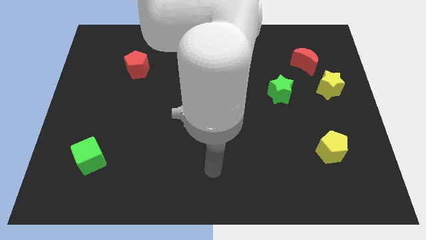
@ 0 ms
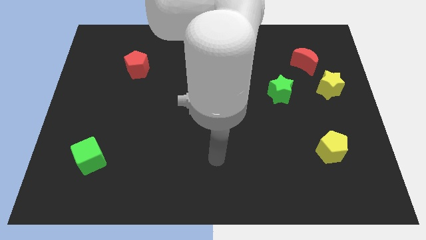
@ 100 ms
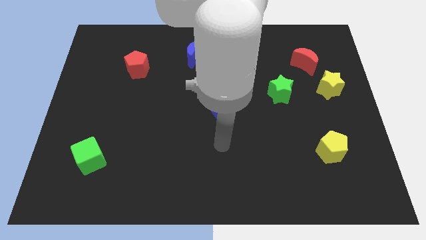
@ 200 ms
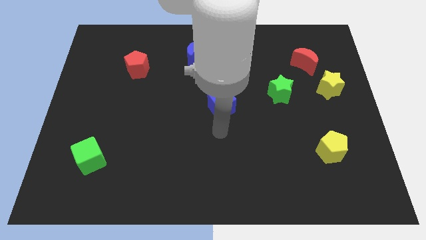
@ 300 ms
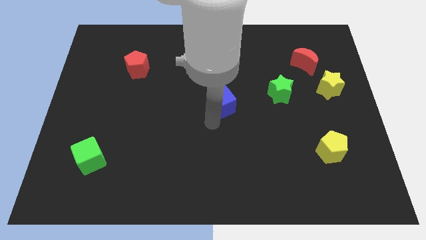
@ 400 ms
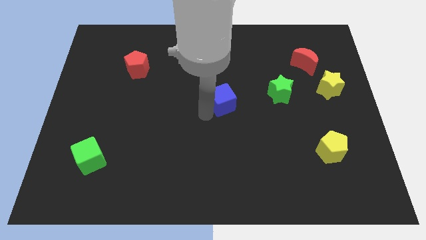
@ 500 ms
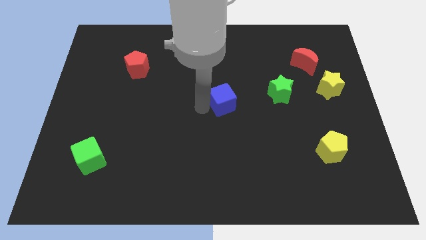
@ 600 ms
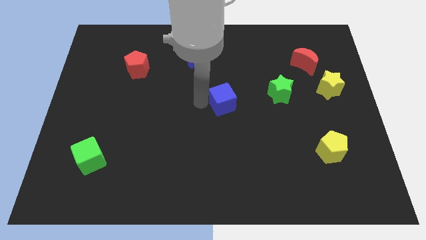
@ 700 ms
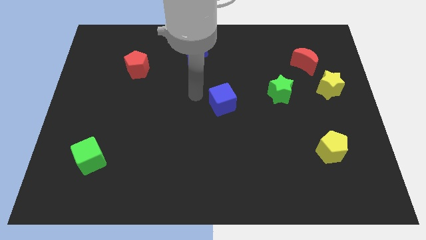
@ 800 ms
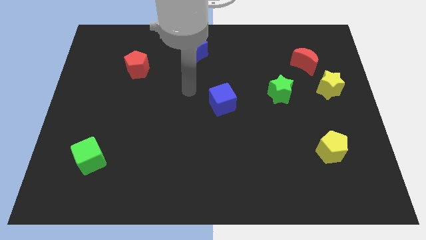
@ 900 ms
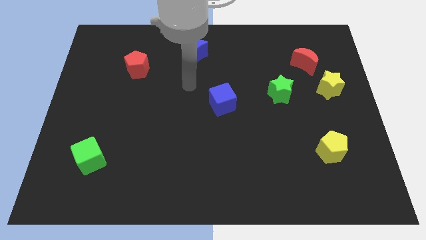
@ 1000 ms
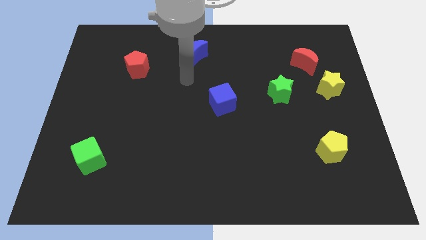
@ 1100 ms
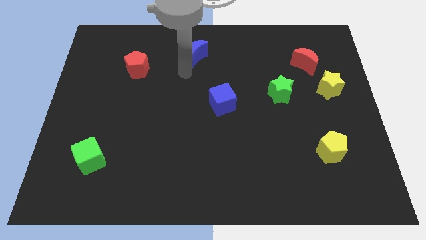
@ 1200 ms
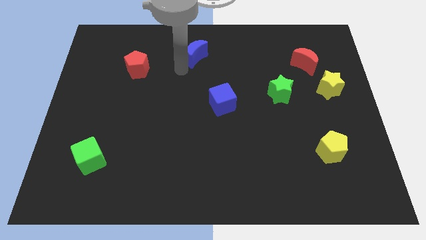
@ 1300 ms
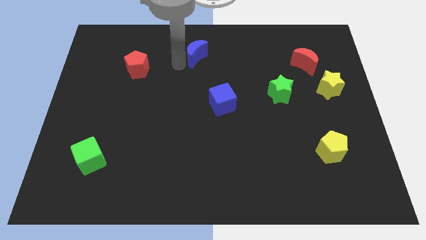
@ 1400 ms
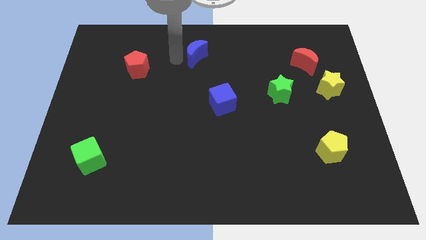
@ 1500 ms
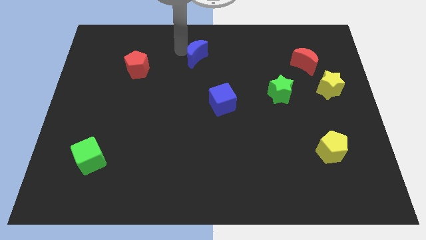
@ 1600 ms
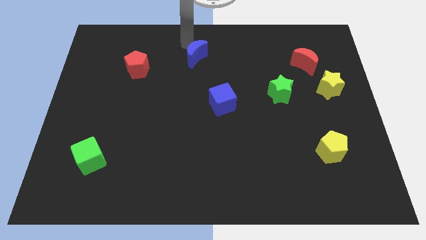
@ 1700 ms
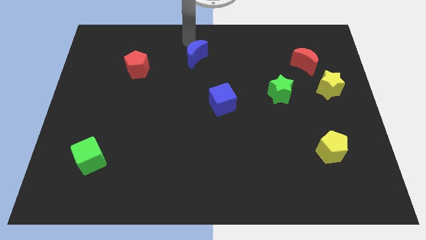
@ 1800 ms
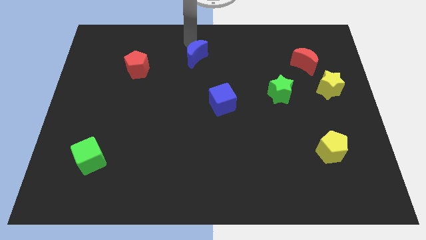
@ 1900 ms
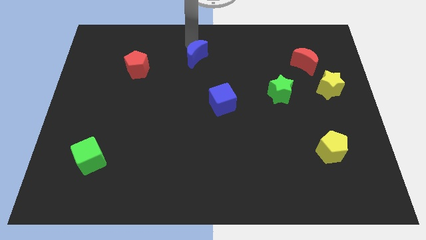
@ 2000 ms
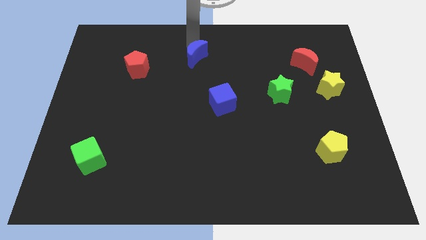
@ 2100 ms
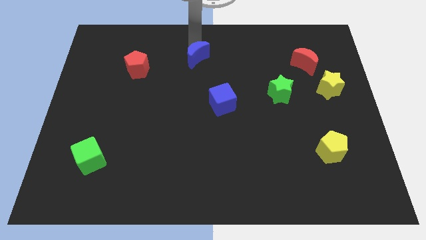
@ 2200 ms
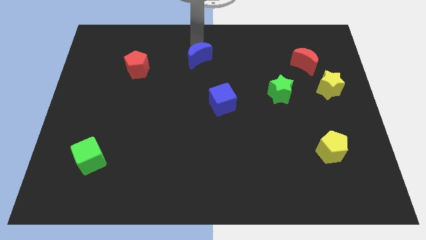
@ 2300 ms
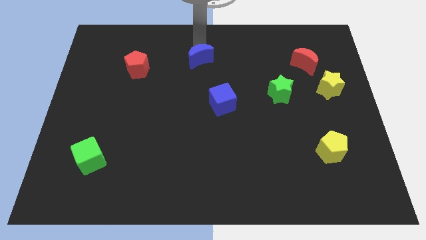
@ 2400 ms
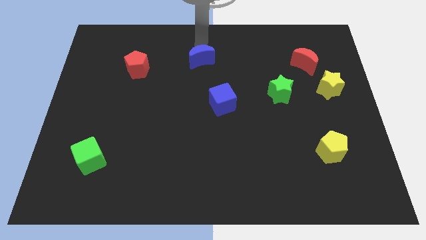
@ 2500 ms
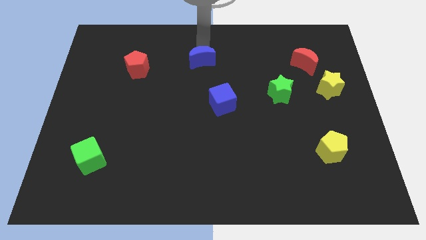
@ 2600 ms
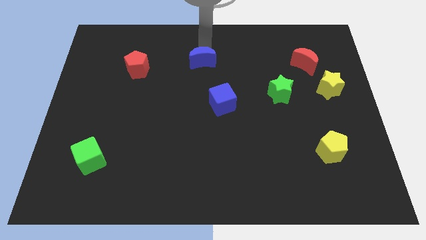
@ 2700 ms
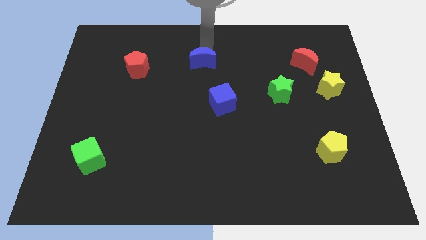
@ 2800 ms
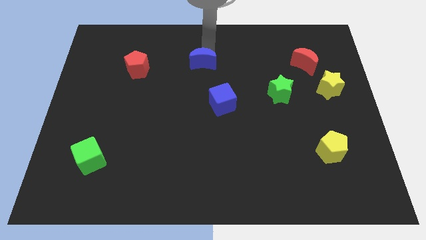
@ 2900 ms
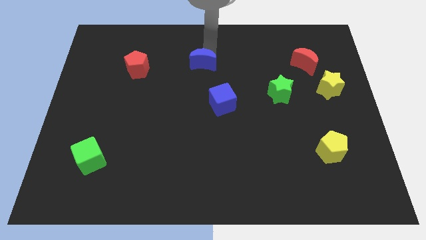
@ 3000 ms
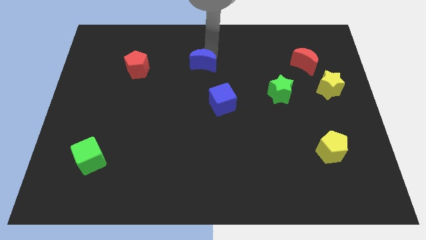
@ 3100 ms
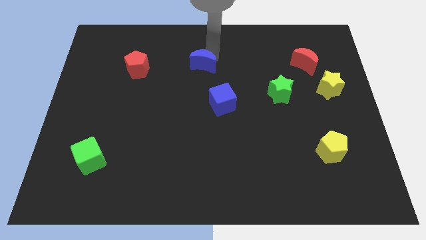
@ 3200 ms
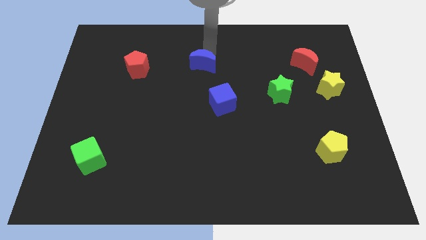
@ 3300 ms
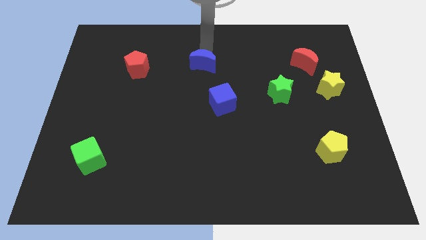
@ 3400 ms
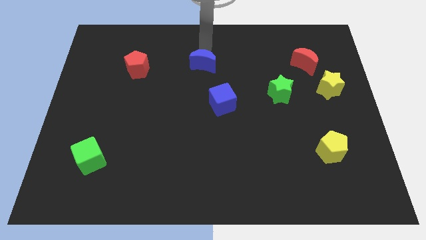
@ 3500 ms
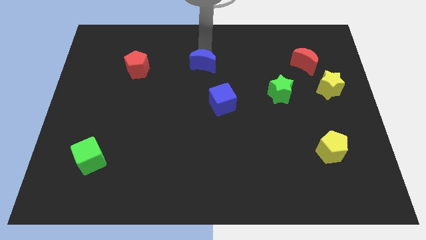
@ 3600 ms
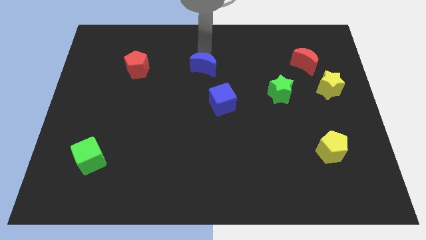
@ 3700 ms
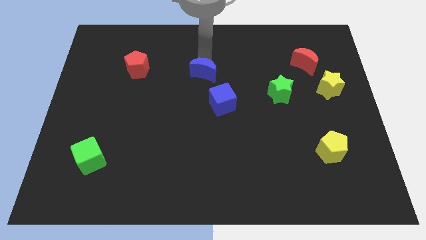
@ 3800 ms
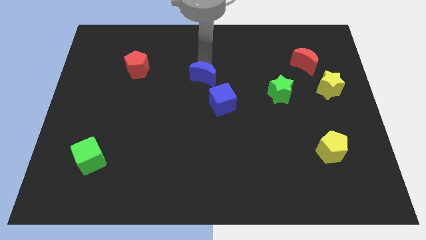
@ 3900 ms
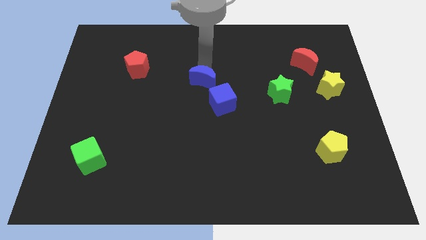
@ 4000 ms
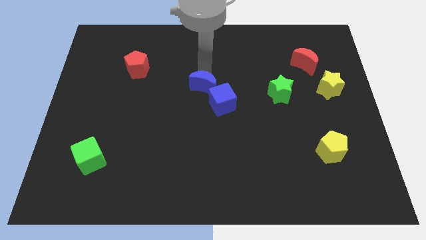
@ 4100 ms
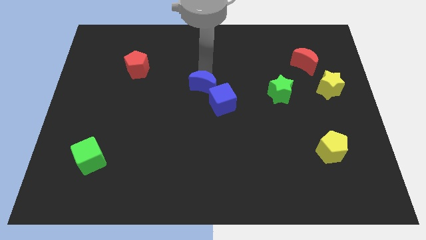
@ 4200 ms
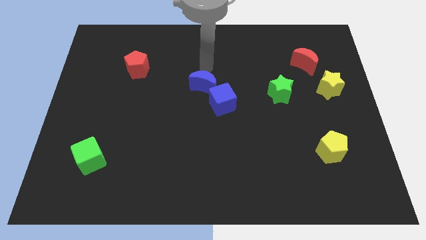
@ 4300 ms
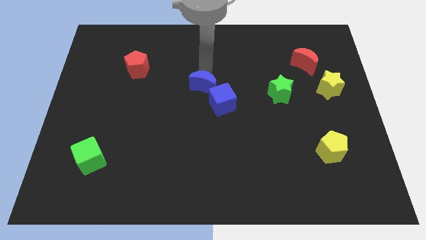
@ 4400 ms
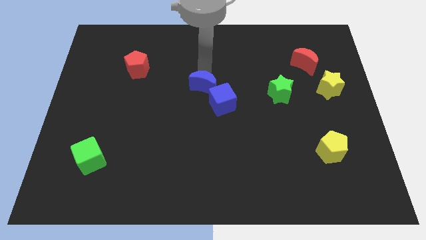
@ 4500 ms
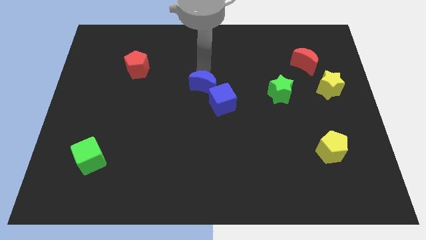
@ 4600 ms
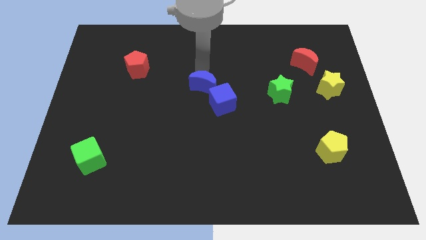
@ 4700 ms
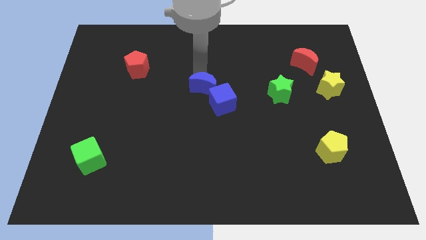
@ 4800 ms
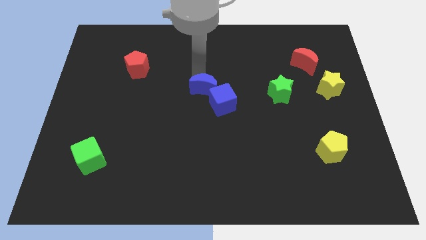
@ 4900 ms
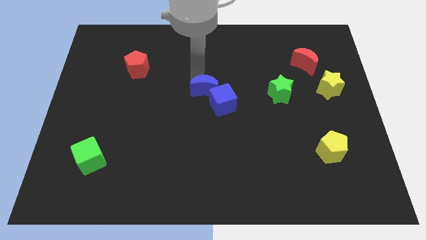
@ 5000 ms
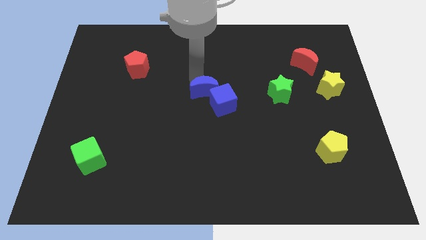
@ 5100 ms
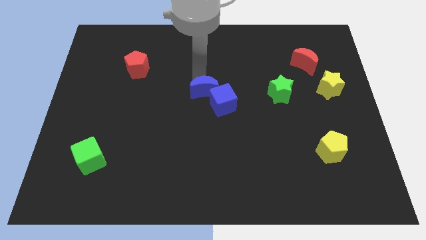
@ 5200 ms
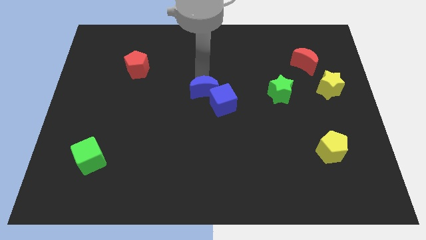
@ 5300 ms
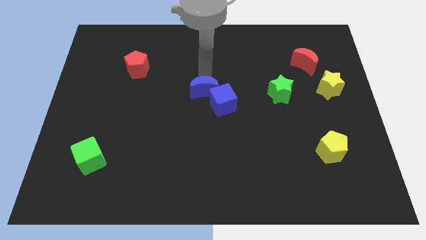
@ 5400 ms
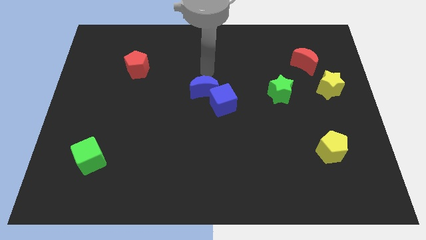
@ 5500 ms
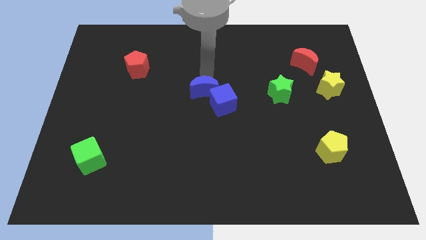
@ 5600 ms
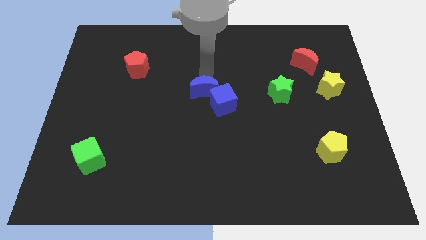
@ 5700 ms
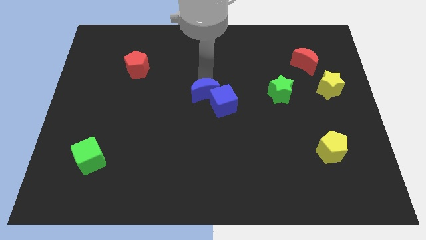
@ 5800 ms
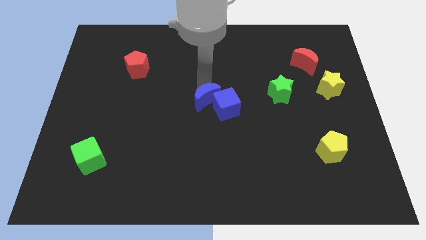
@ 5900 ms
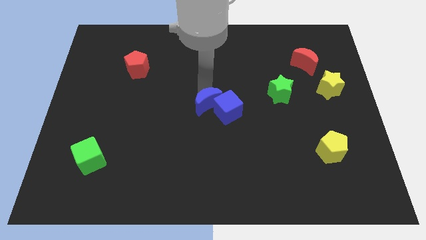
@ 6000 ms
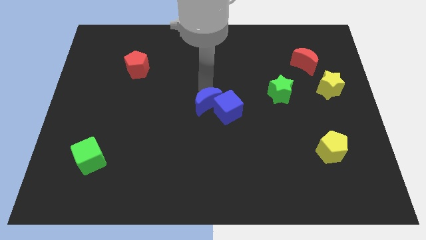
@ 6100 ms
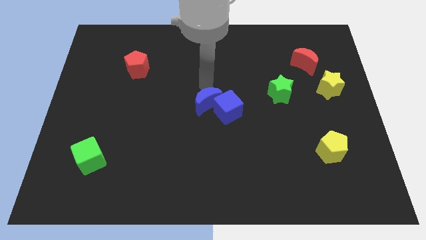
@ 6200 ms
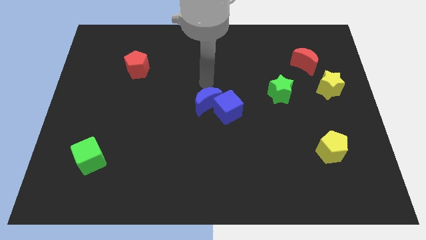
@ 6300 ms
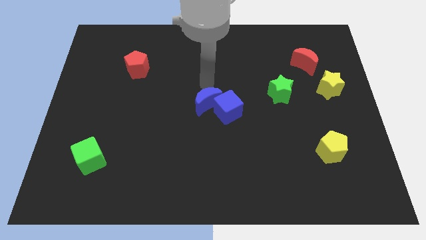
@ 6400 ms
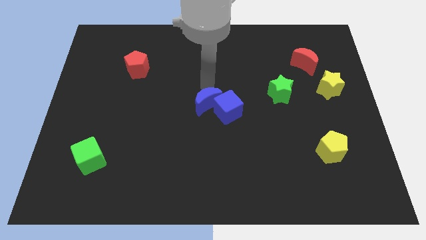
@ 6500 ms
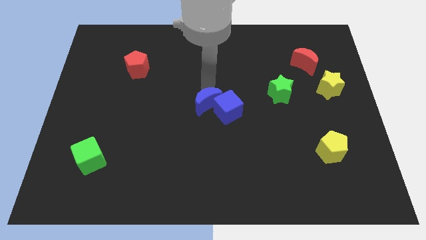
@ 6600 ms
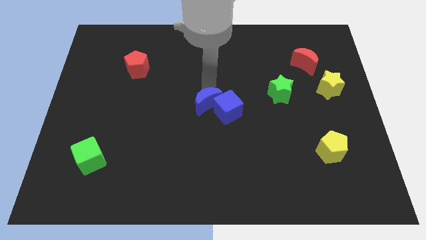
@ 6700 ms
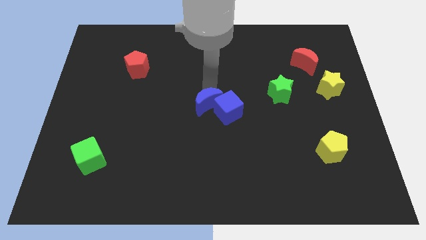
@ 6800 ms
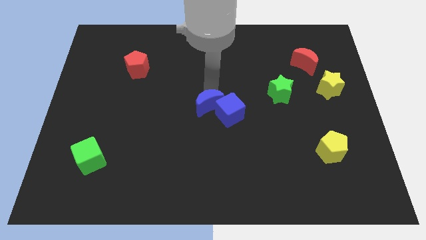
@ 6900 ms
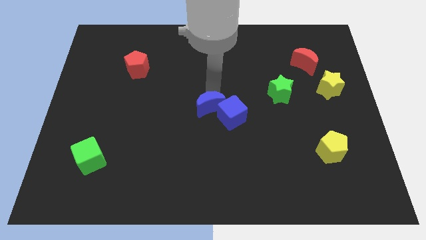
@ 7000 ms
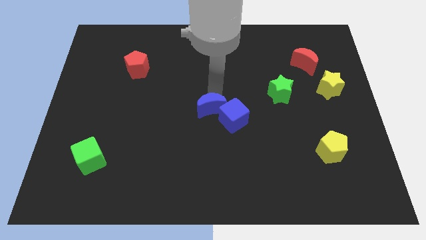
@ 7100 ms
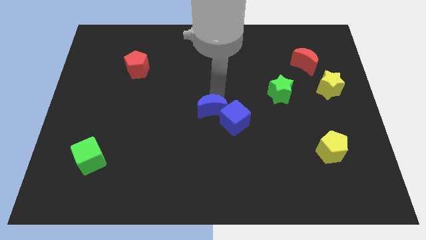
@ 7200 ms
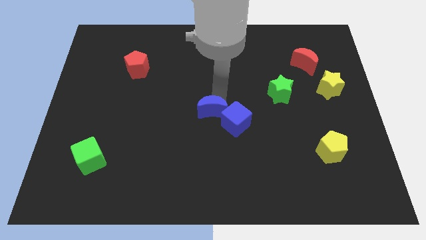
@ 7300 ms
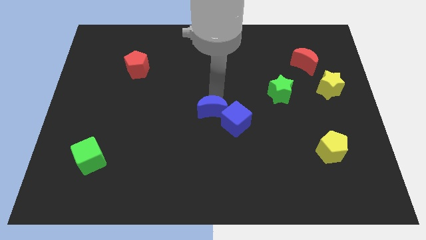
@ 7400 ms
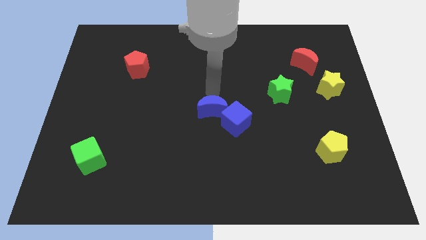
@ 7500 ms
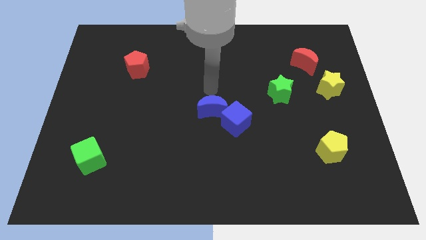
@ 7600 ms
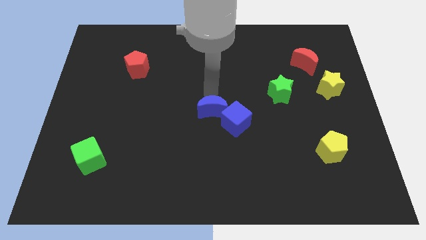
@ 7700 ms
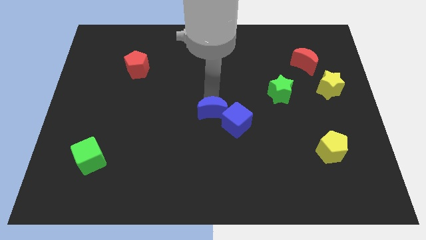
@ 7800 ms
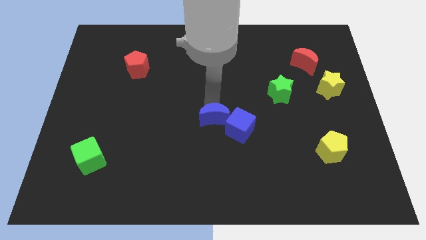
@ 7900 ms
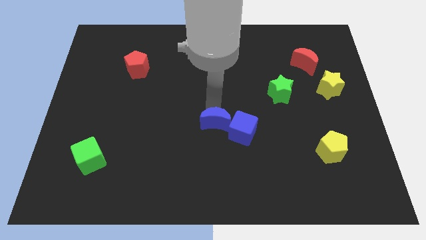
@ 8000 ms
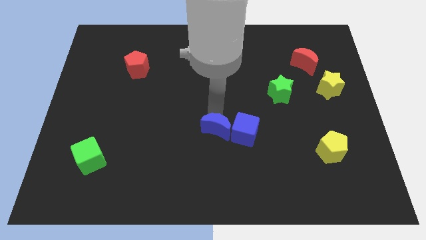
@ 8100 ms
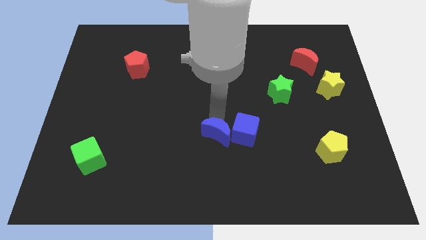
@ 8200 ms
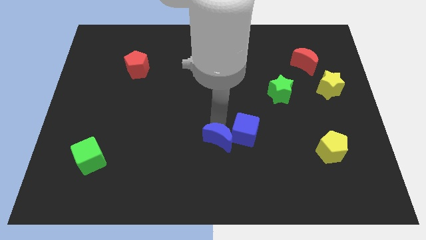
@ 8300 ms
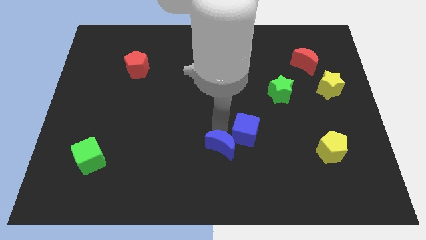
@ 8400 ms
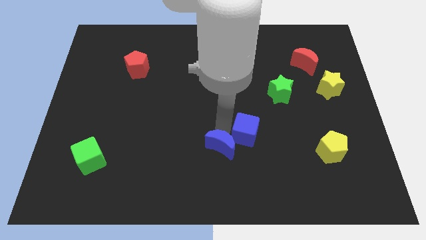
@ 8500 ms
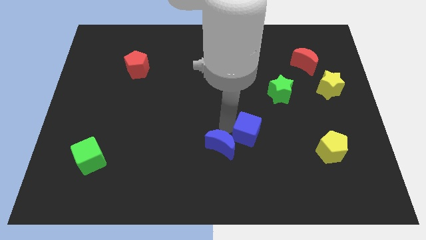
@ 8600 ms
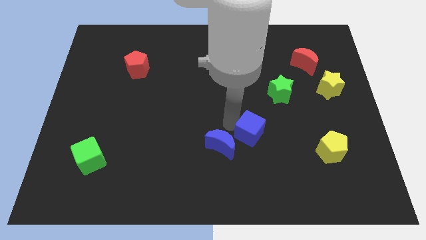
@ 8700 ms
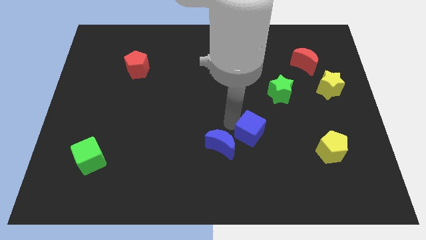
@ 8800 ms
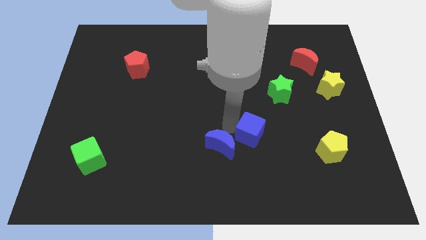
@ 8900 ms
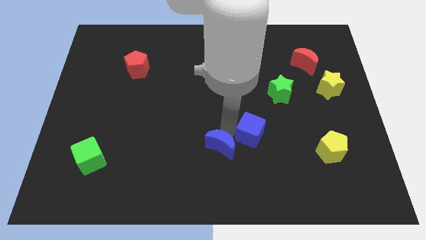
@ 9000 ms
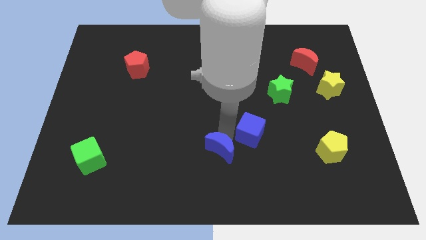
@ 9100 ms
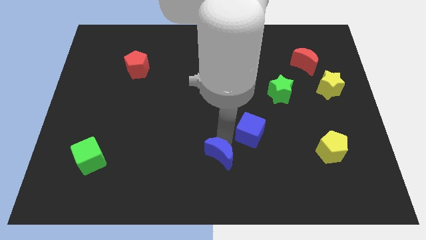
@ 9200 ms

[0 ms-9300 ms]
move the blue moon to the bottom side
